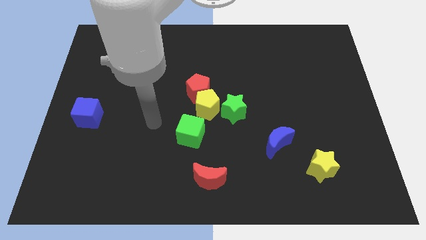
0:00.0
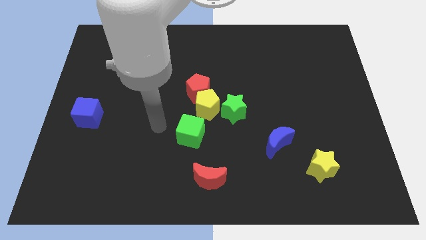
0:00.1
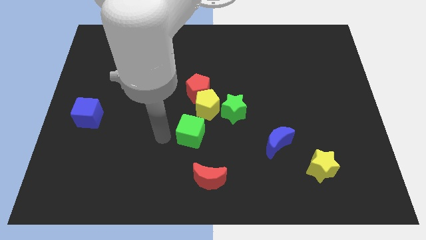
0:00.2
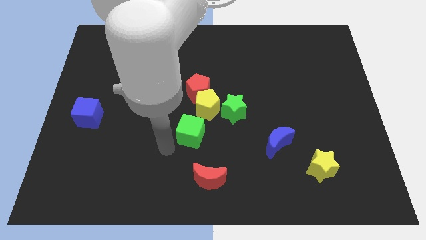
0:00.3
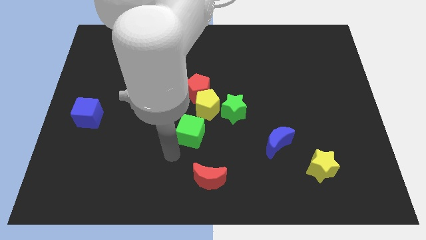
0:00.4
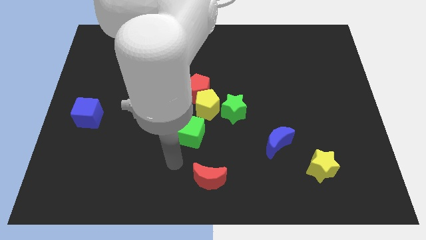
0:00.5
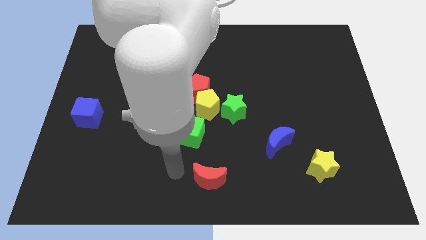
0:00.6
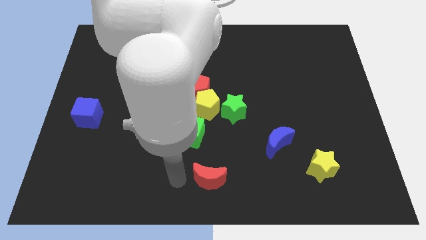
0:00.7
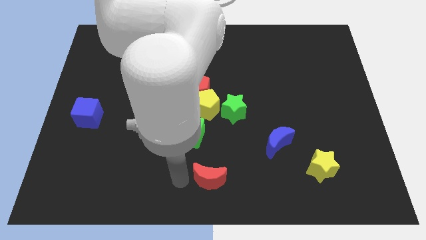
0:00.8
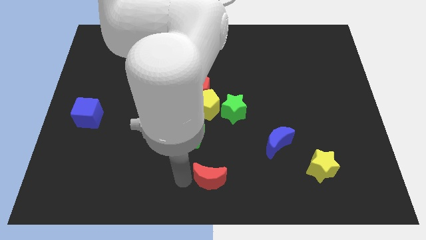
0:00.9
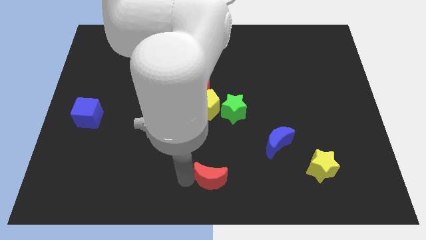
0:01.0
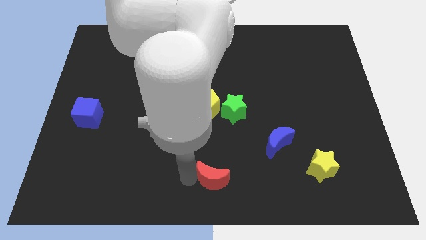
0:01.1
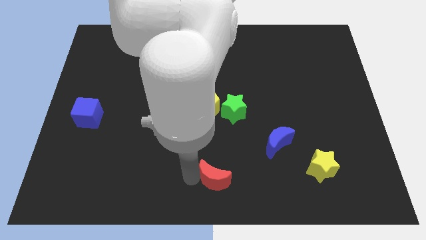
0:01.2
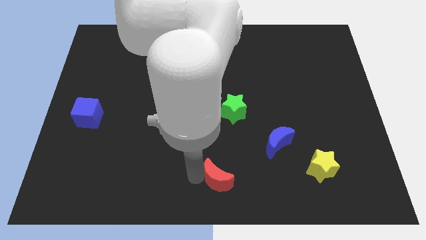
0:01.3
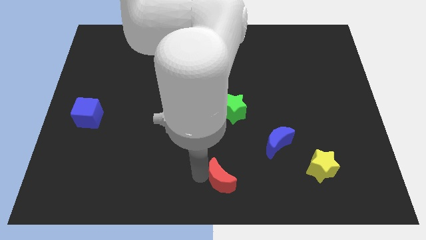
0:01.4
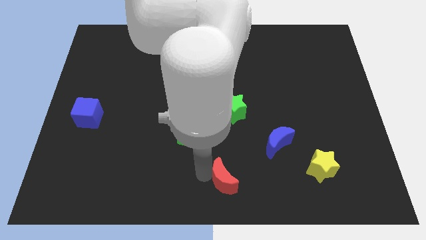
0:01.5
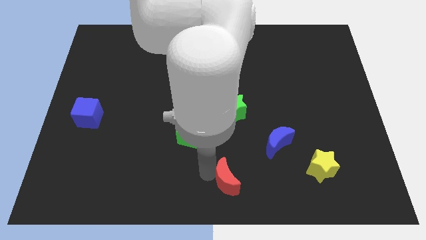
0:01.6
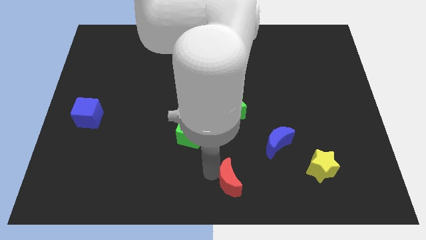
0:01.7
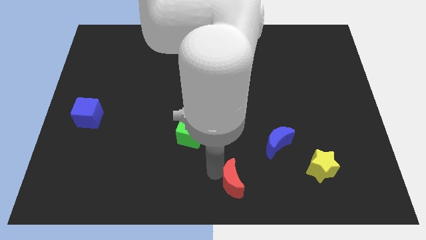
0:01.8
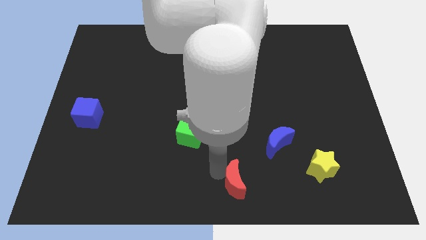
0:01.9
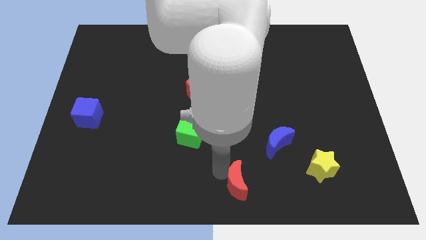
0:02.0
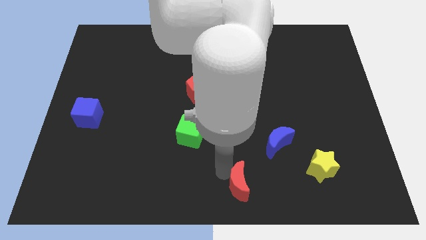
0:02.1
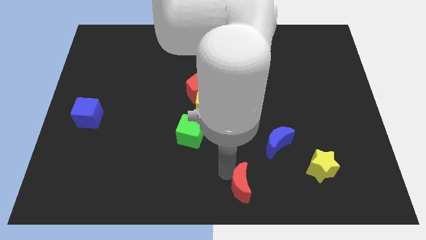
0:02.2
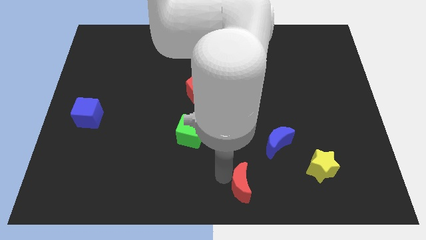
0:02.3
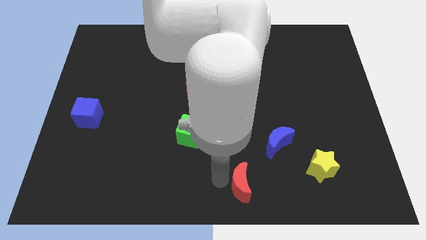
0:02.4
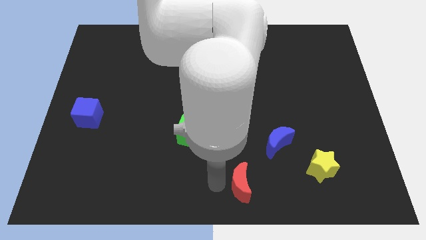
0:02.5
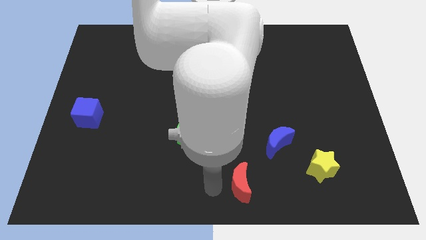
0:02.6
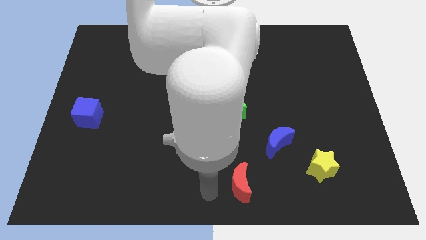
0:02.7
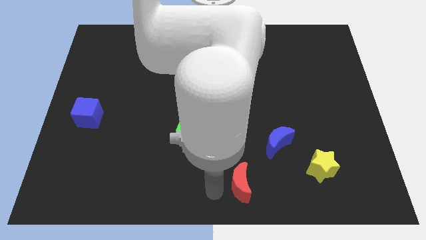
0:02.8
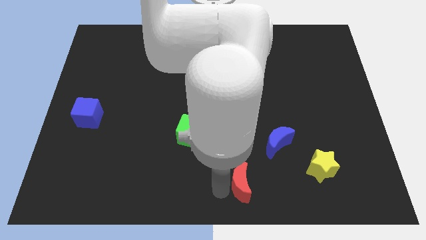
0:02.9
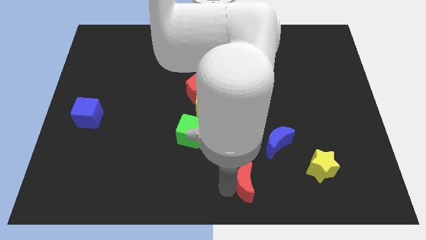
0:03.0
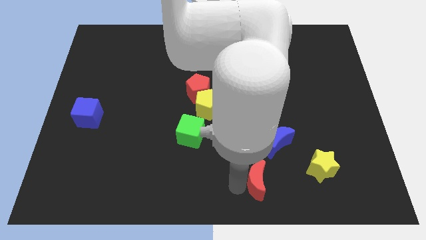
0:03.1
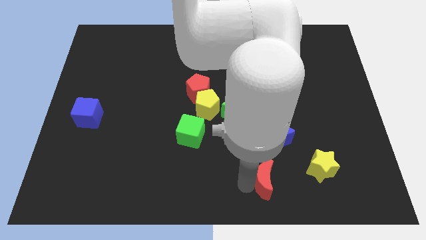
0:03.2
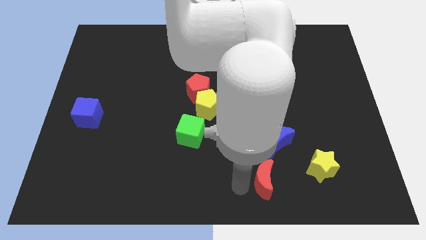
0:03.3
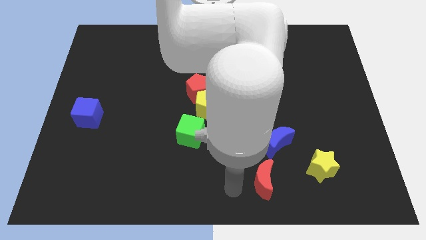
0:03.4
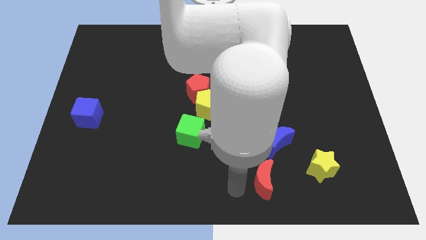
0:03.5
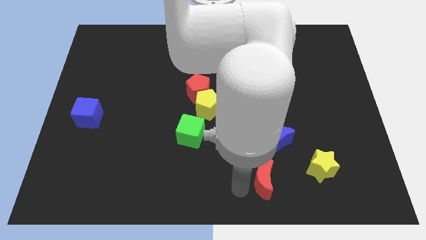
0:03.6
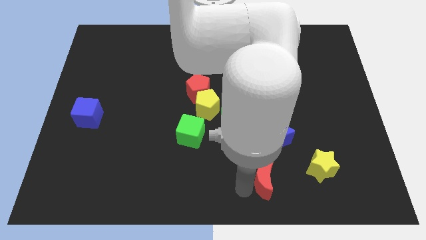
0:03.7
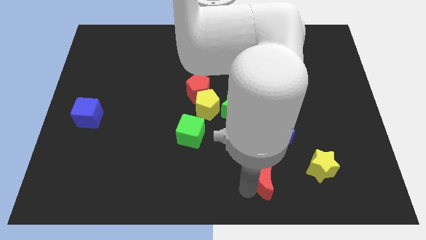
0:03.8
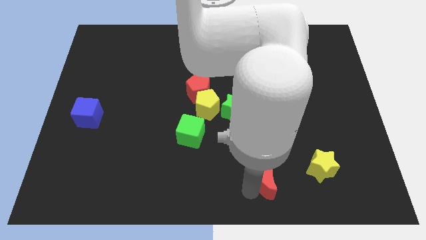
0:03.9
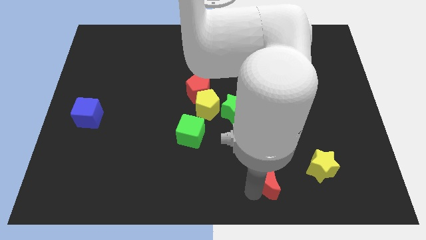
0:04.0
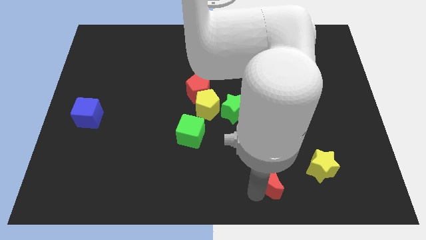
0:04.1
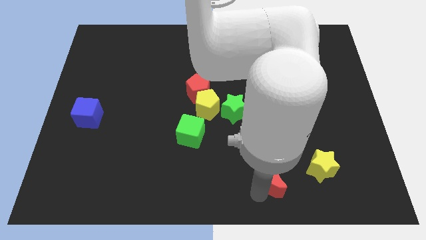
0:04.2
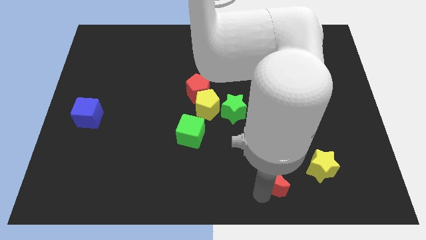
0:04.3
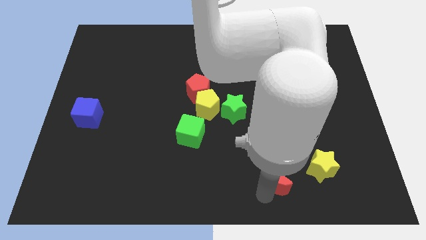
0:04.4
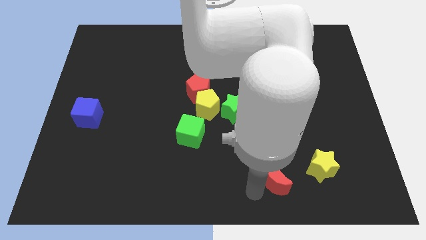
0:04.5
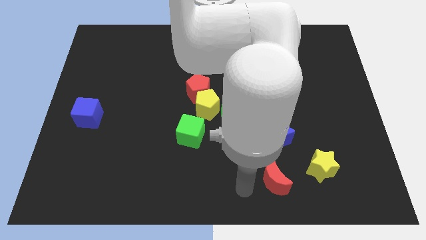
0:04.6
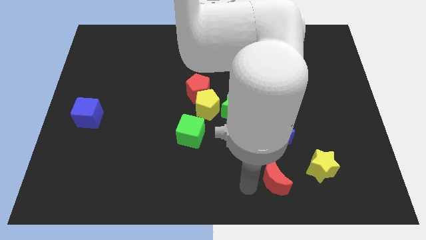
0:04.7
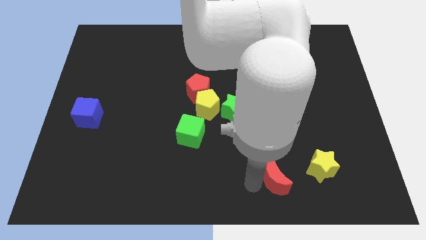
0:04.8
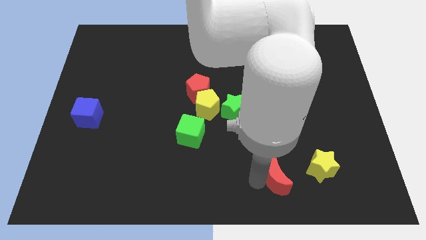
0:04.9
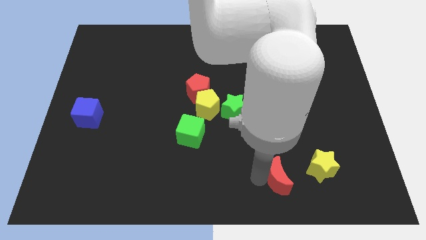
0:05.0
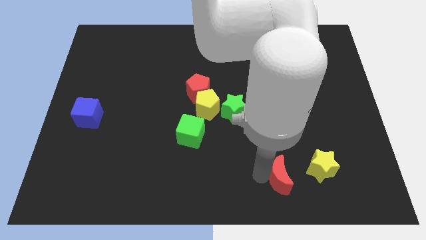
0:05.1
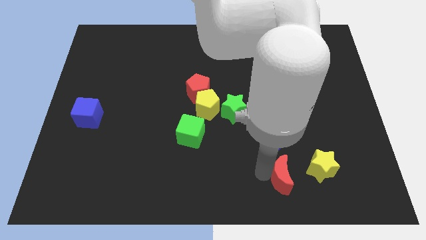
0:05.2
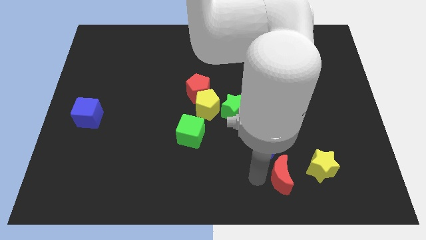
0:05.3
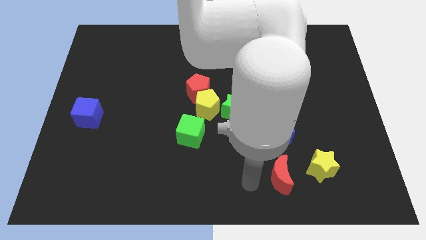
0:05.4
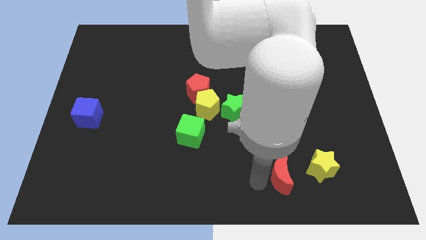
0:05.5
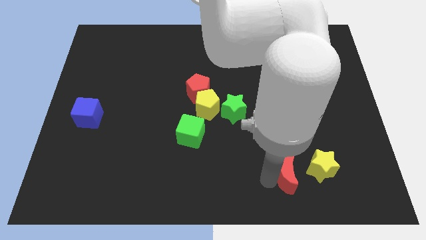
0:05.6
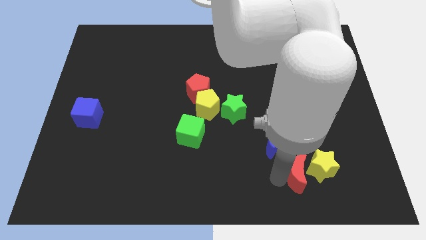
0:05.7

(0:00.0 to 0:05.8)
push the red moon next to the yellow star

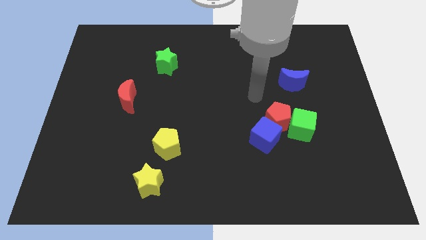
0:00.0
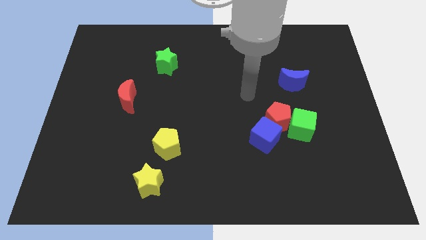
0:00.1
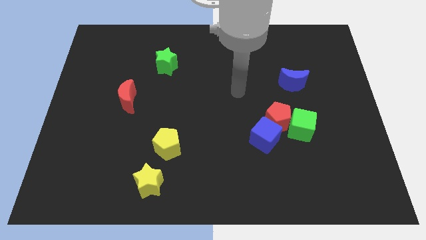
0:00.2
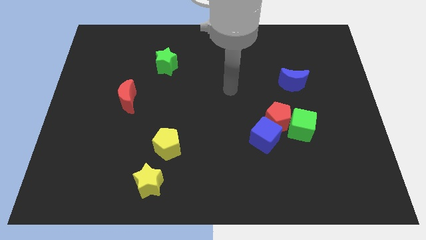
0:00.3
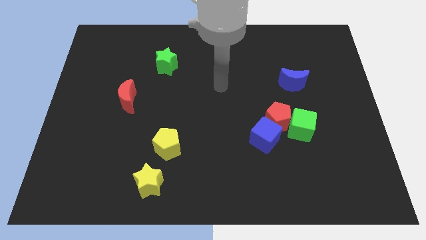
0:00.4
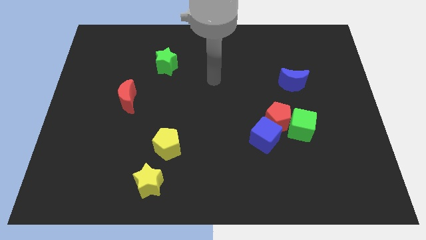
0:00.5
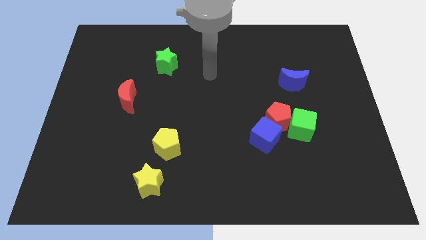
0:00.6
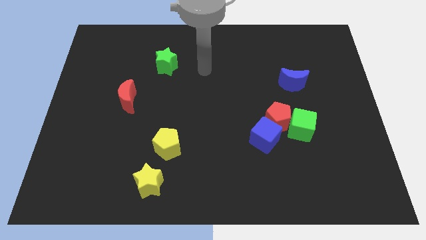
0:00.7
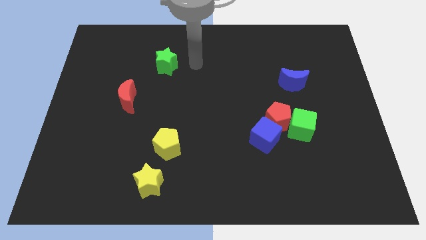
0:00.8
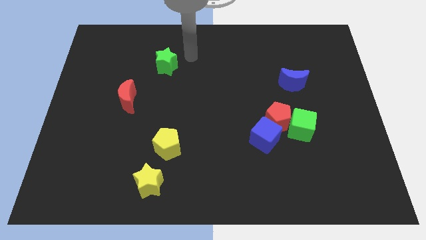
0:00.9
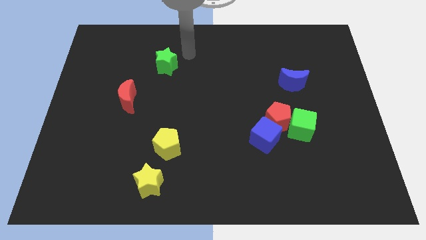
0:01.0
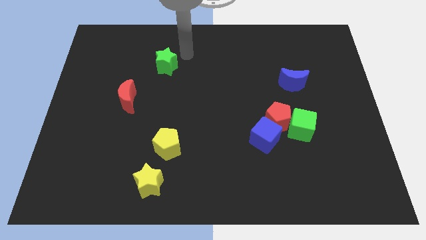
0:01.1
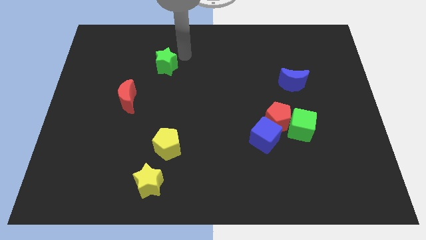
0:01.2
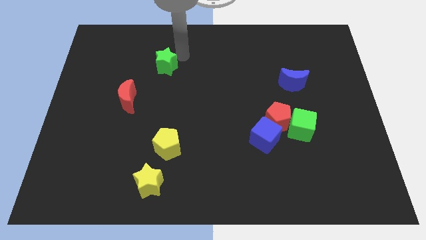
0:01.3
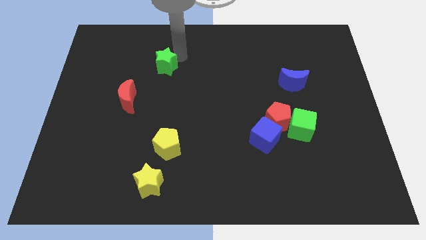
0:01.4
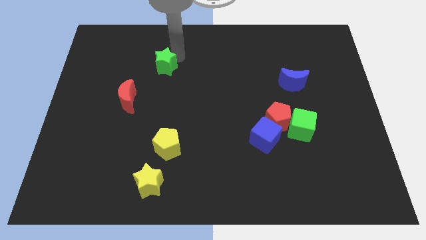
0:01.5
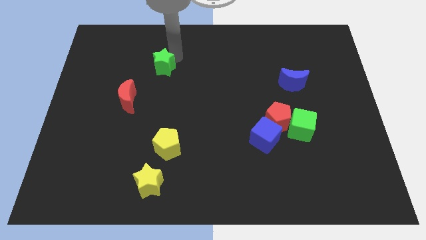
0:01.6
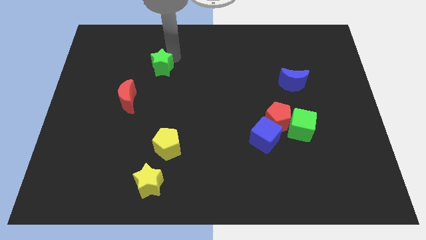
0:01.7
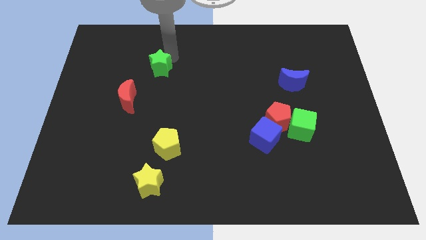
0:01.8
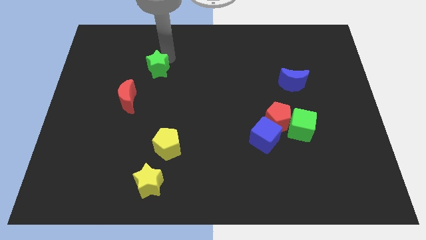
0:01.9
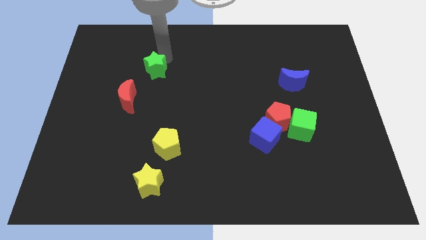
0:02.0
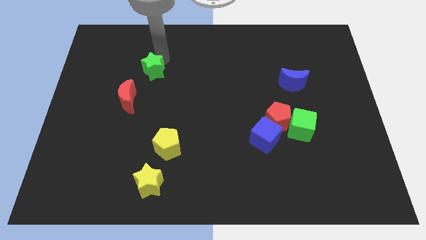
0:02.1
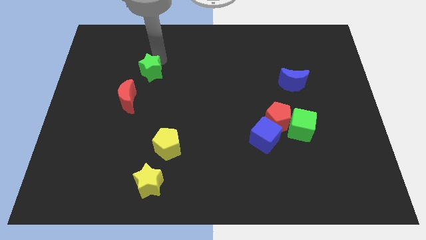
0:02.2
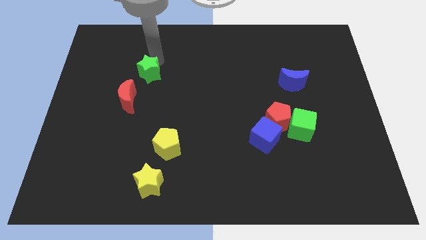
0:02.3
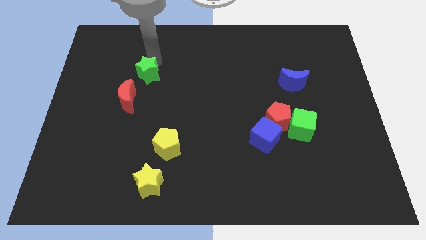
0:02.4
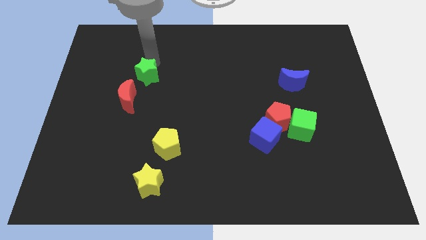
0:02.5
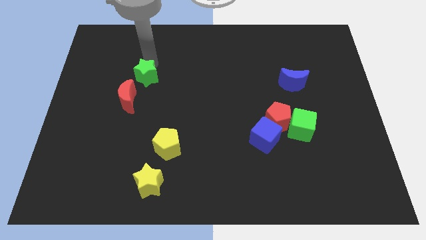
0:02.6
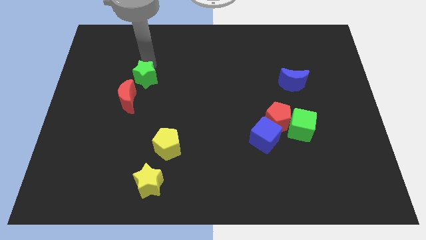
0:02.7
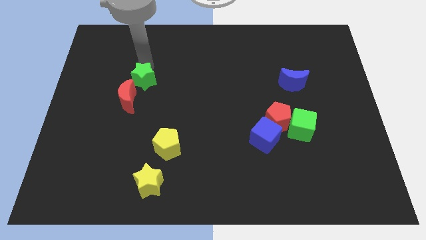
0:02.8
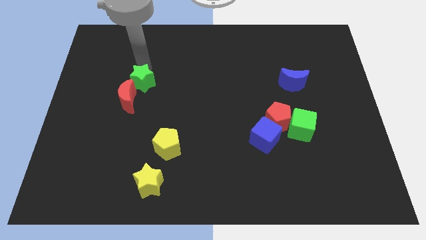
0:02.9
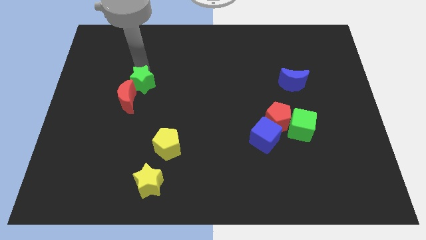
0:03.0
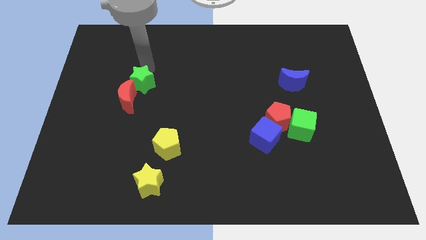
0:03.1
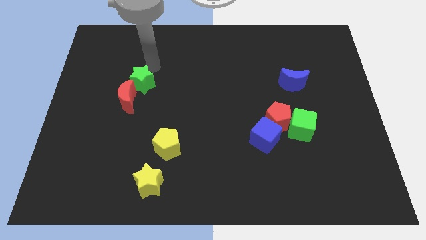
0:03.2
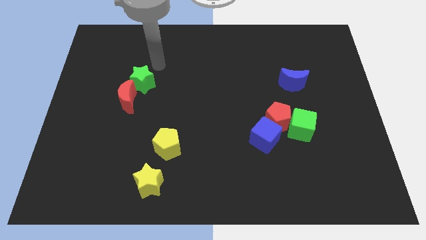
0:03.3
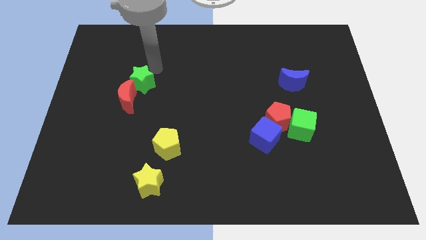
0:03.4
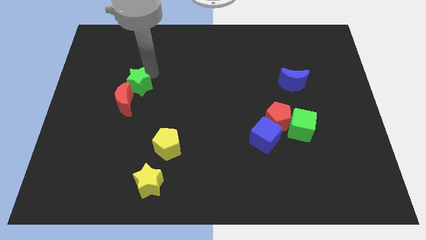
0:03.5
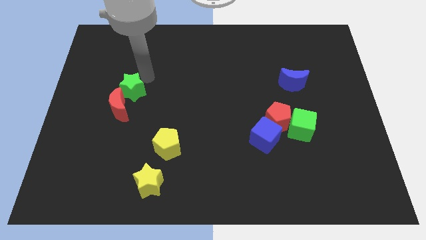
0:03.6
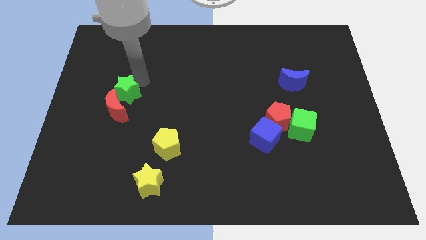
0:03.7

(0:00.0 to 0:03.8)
move the green star towards the red moon
